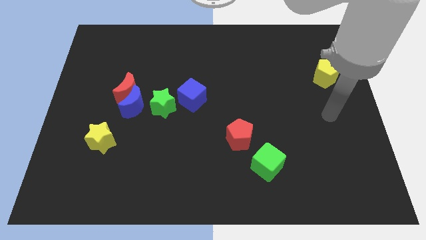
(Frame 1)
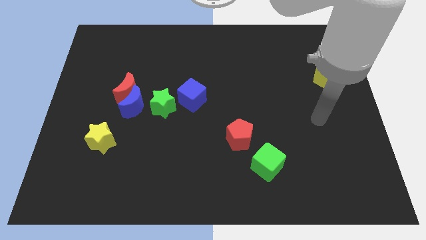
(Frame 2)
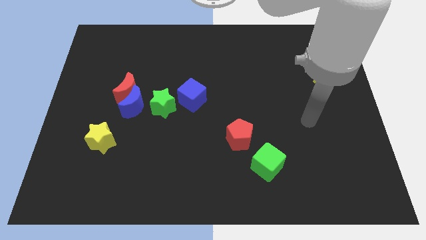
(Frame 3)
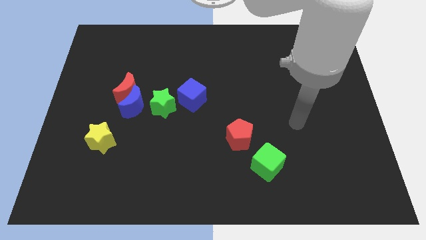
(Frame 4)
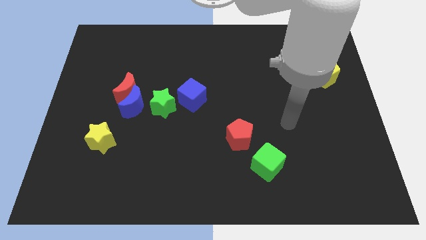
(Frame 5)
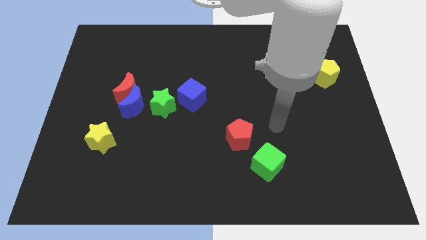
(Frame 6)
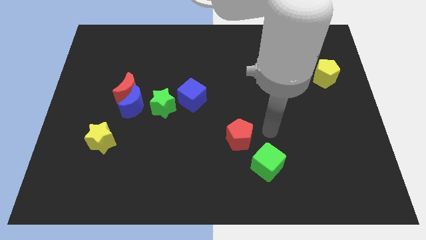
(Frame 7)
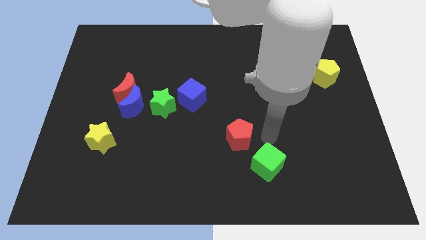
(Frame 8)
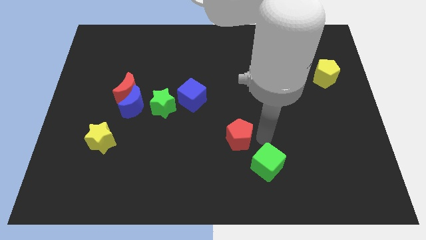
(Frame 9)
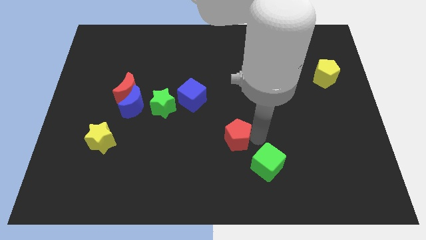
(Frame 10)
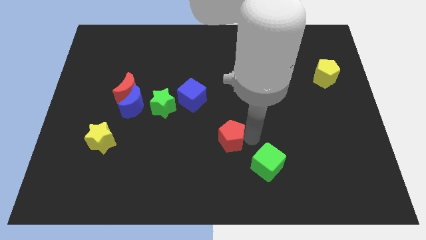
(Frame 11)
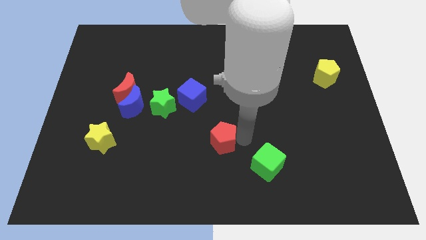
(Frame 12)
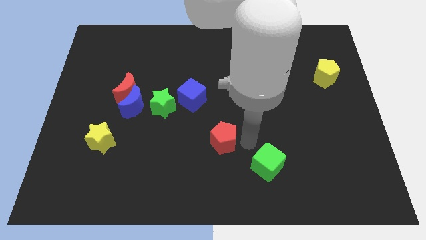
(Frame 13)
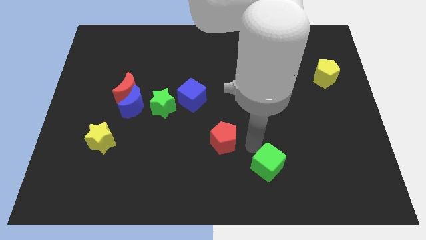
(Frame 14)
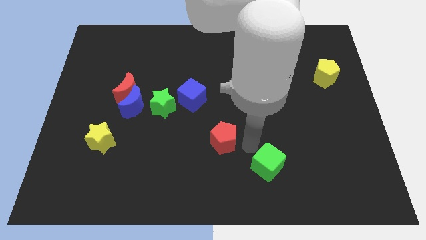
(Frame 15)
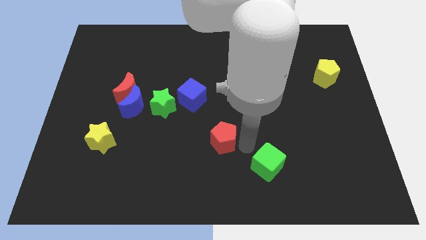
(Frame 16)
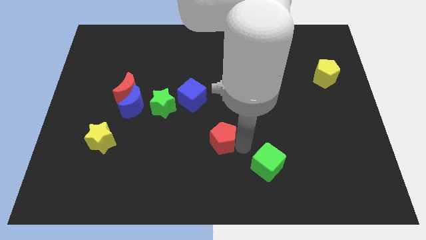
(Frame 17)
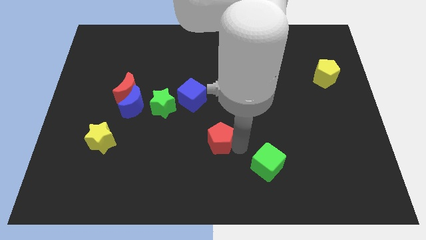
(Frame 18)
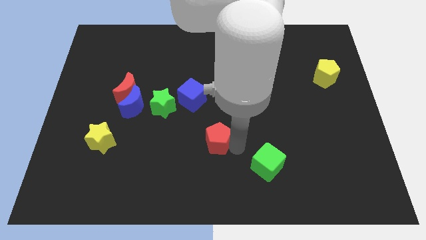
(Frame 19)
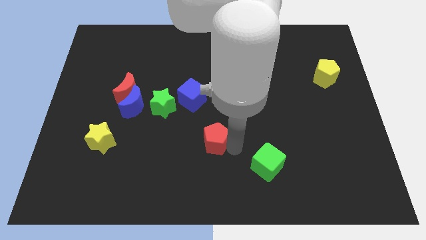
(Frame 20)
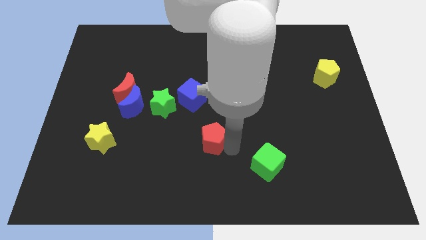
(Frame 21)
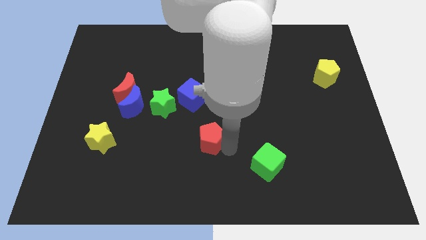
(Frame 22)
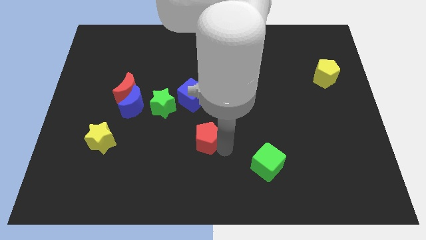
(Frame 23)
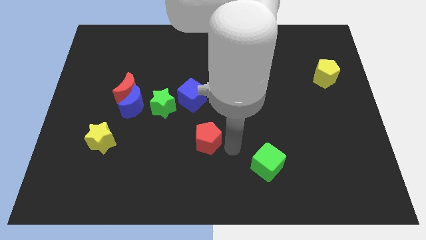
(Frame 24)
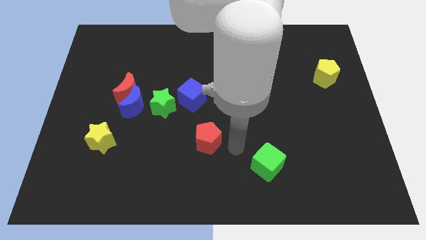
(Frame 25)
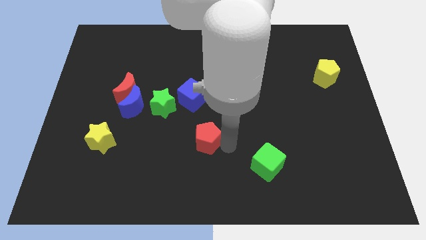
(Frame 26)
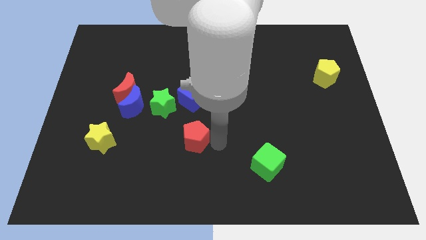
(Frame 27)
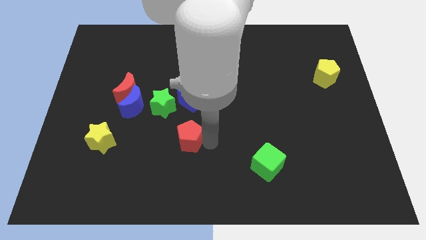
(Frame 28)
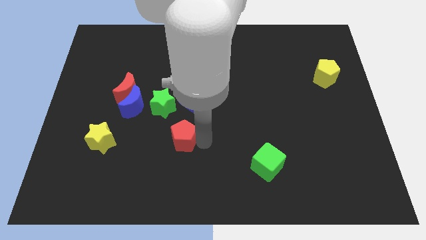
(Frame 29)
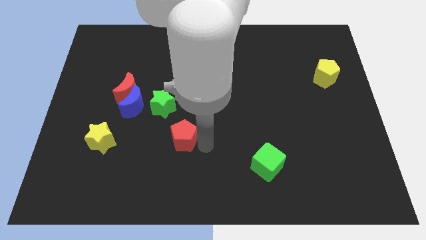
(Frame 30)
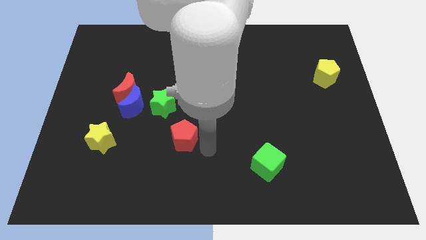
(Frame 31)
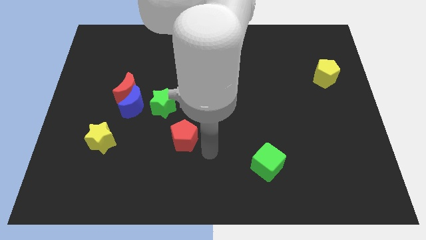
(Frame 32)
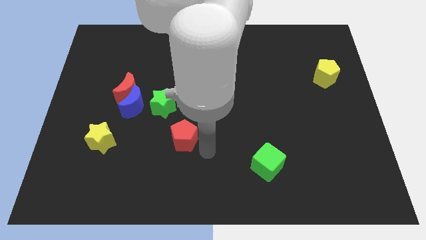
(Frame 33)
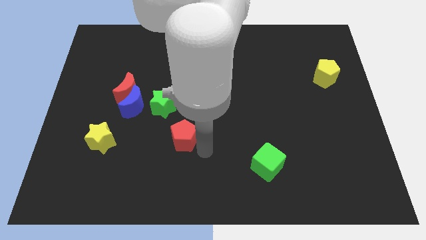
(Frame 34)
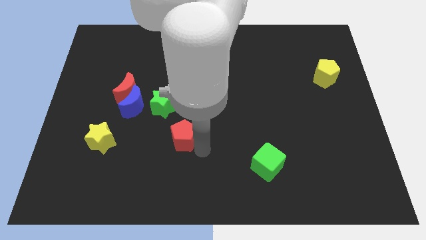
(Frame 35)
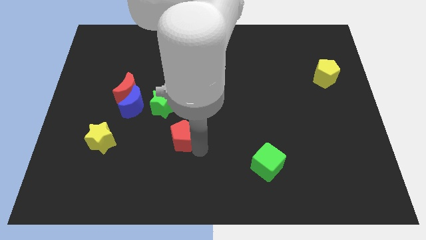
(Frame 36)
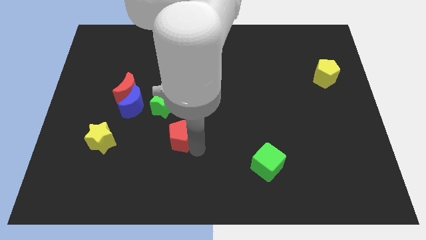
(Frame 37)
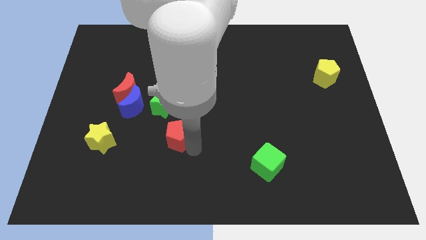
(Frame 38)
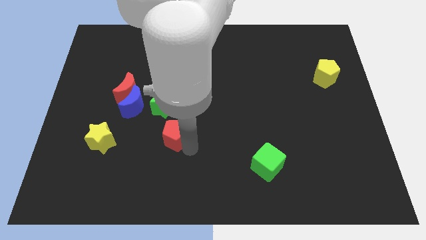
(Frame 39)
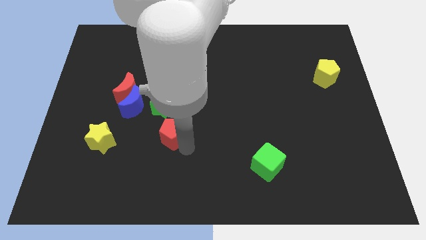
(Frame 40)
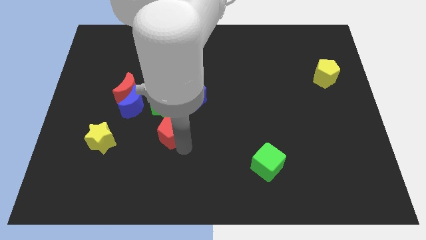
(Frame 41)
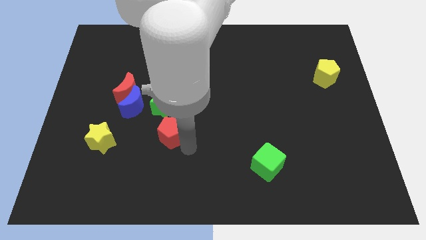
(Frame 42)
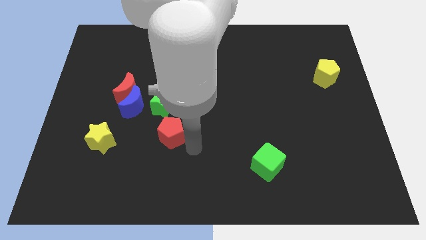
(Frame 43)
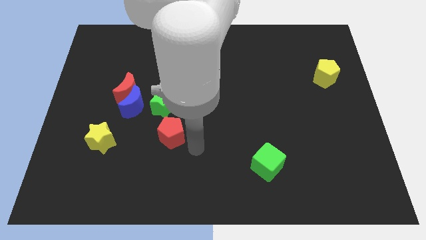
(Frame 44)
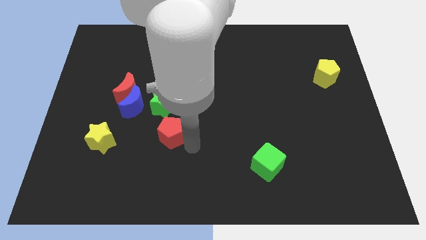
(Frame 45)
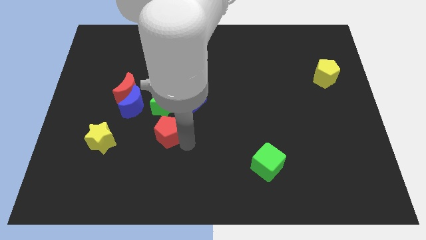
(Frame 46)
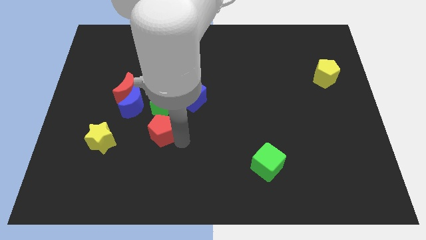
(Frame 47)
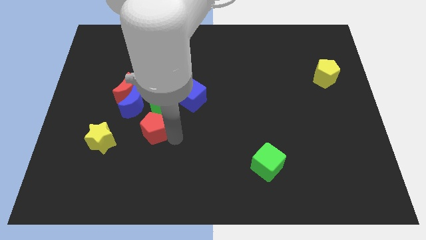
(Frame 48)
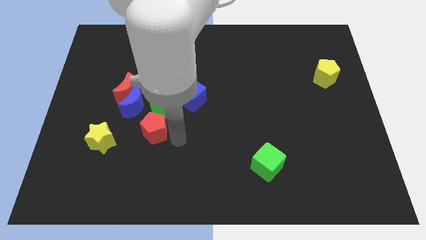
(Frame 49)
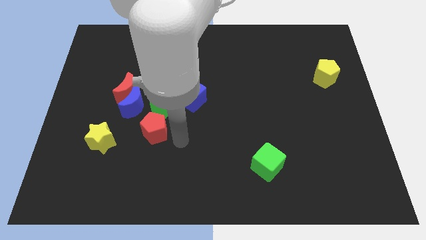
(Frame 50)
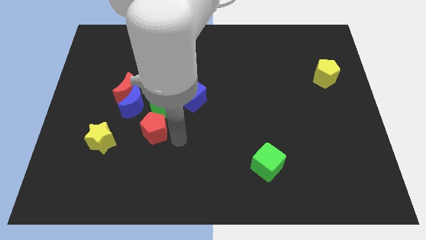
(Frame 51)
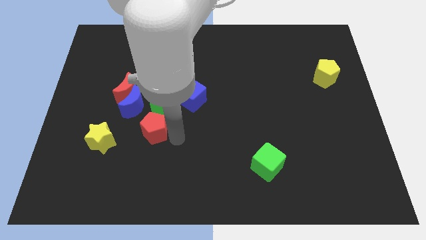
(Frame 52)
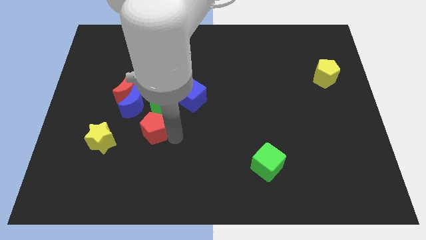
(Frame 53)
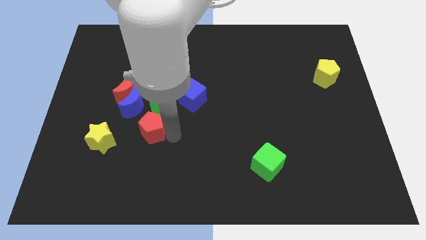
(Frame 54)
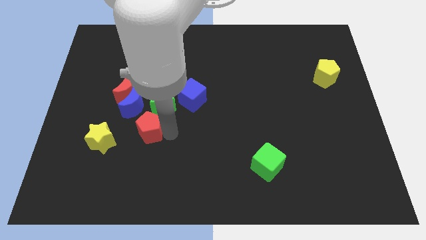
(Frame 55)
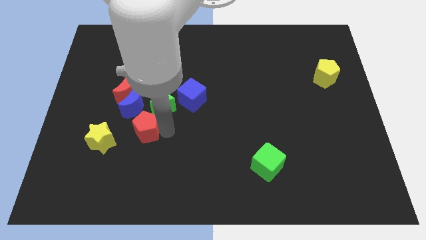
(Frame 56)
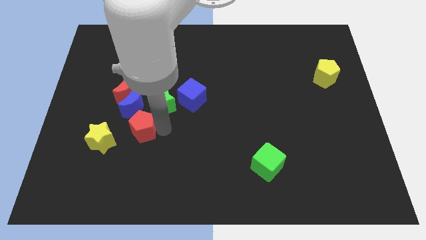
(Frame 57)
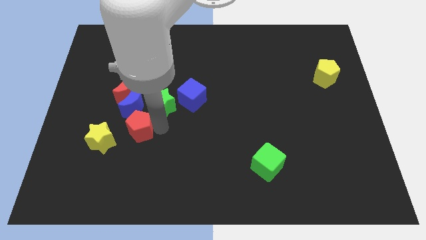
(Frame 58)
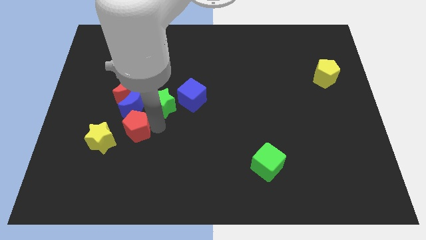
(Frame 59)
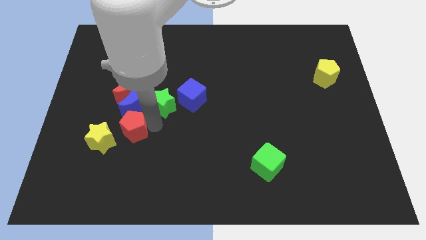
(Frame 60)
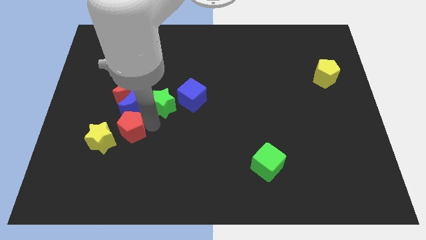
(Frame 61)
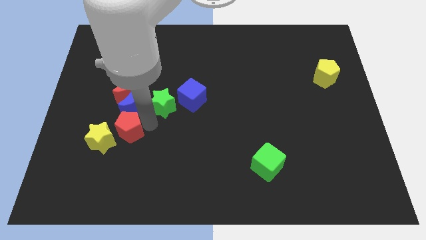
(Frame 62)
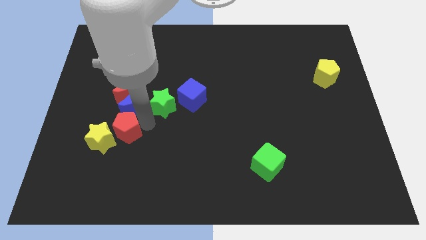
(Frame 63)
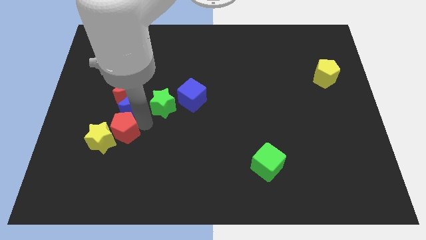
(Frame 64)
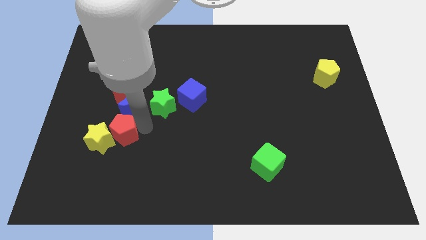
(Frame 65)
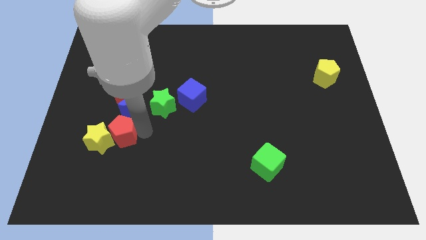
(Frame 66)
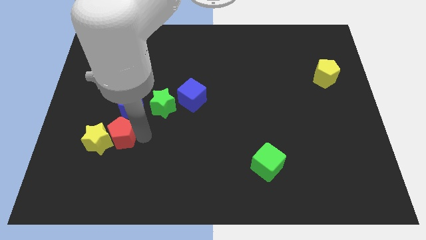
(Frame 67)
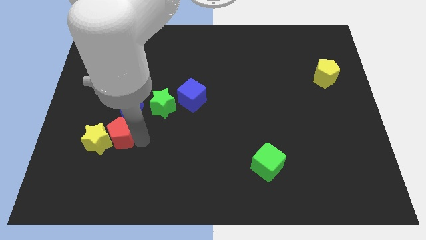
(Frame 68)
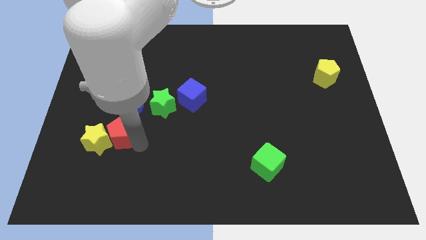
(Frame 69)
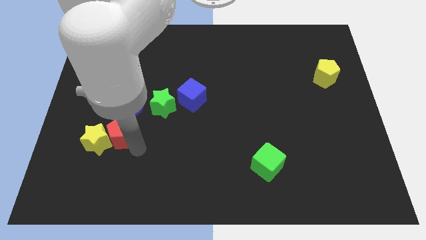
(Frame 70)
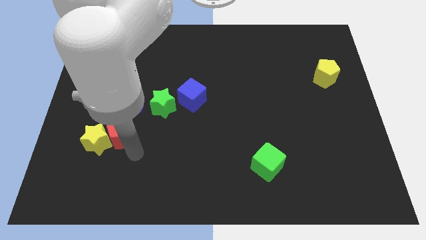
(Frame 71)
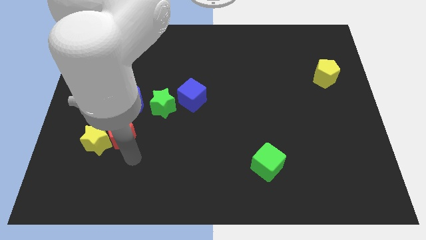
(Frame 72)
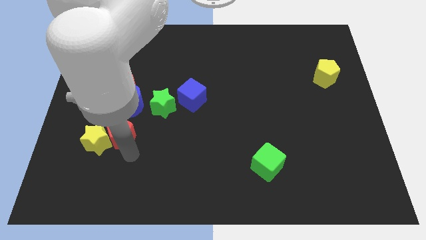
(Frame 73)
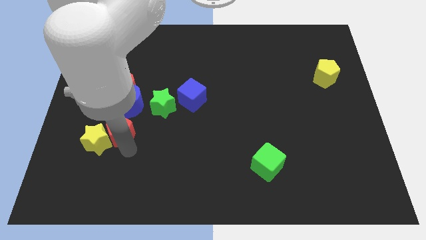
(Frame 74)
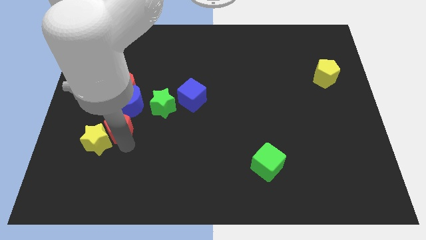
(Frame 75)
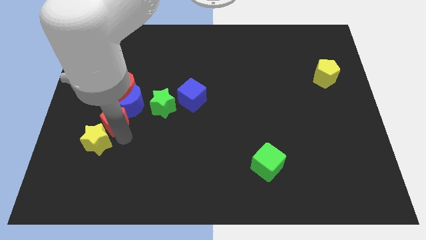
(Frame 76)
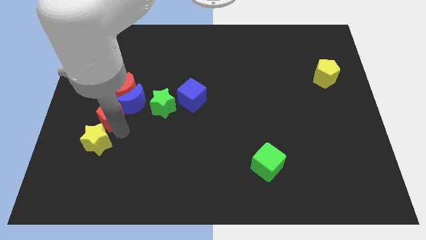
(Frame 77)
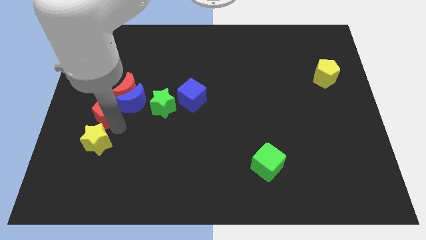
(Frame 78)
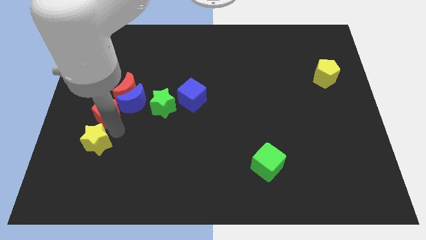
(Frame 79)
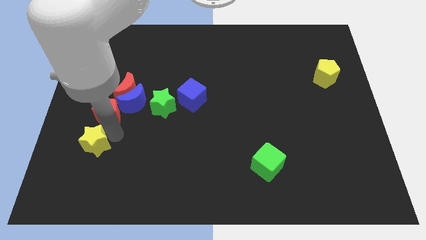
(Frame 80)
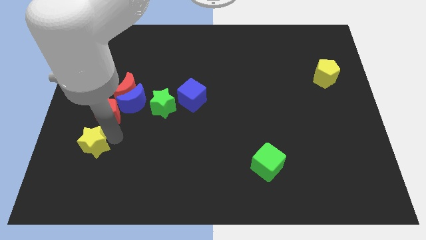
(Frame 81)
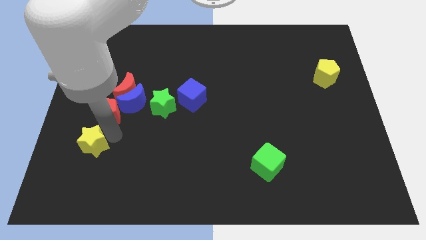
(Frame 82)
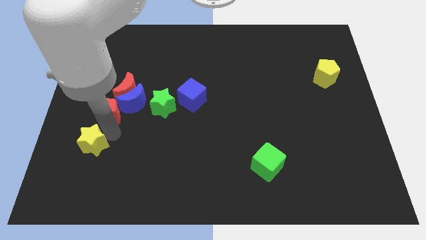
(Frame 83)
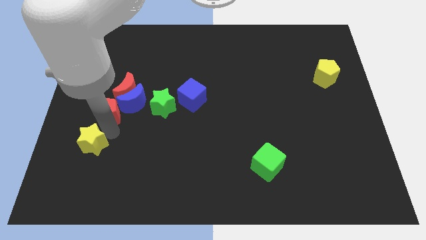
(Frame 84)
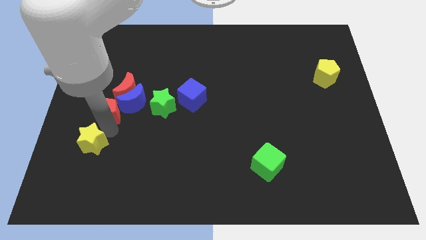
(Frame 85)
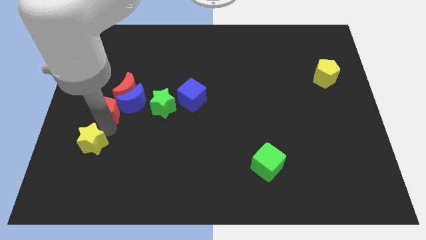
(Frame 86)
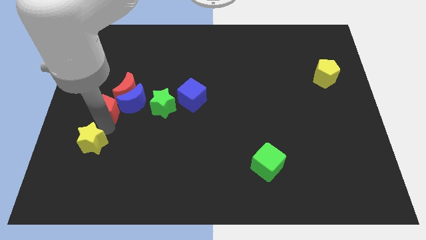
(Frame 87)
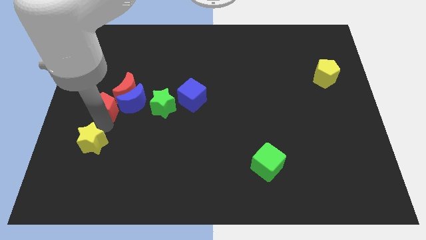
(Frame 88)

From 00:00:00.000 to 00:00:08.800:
put the red pentagon to the left side
